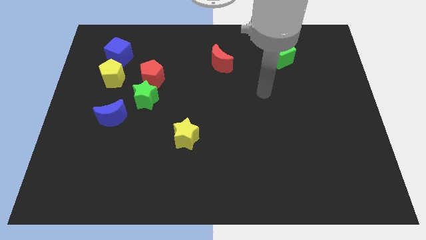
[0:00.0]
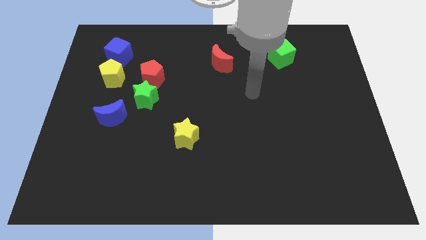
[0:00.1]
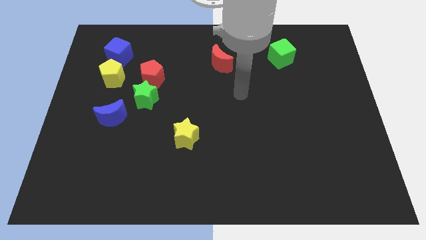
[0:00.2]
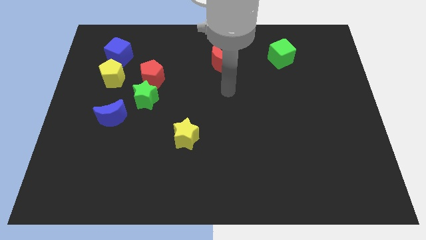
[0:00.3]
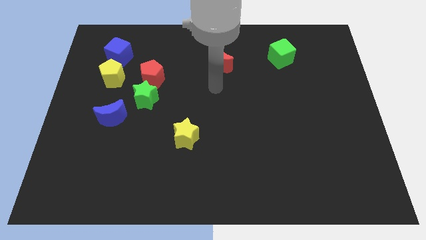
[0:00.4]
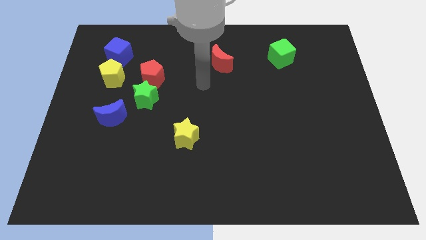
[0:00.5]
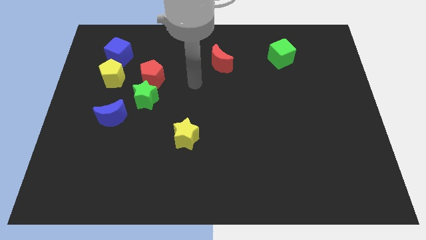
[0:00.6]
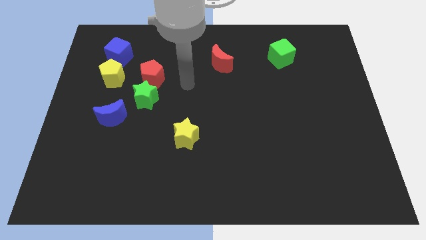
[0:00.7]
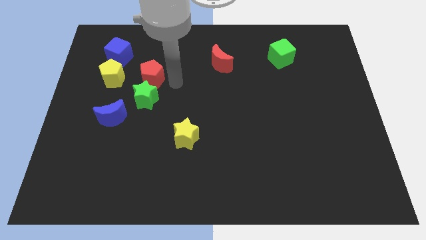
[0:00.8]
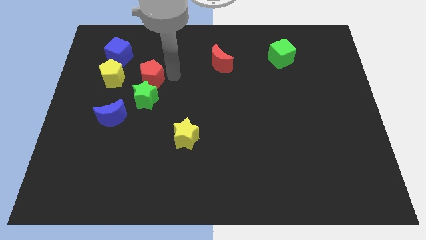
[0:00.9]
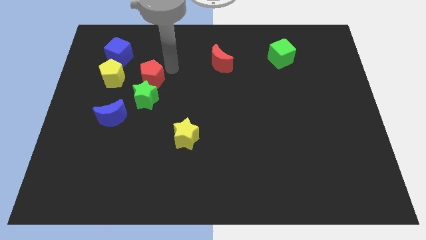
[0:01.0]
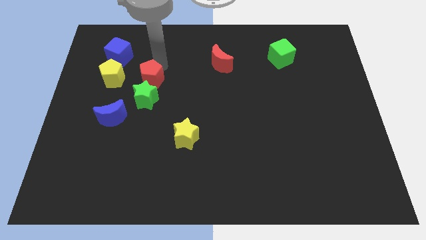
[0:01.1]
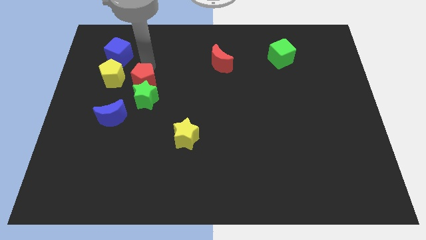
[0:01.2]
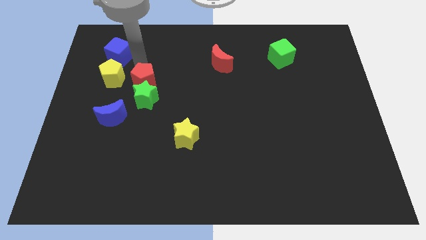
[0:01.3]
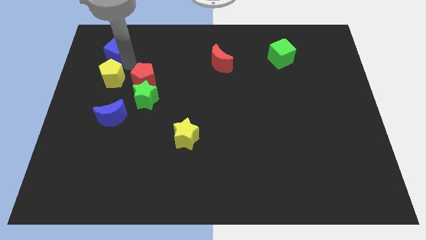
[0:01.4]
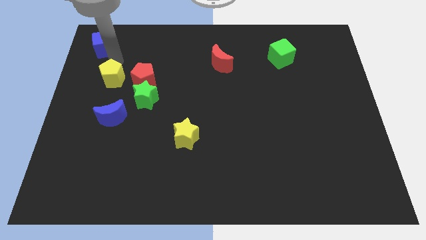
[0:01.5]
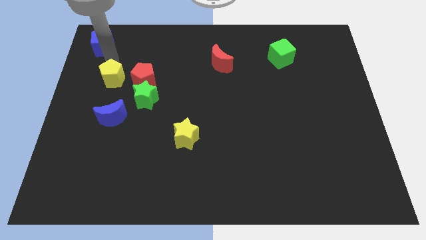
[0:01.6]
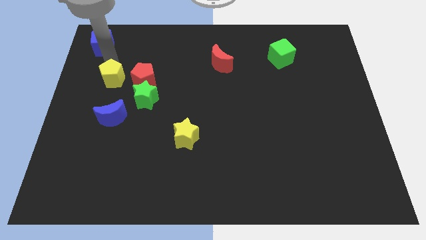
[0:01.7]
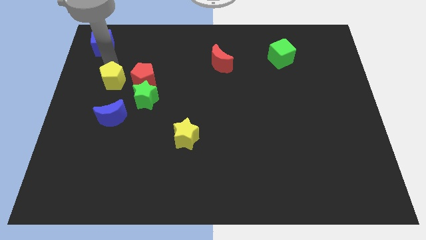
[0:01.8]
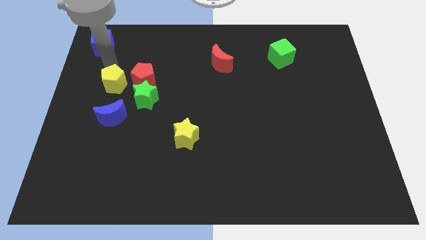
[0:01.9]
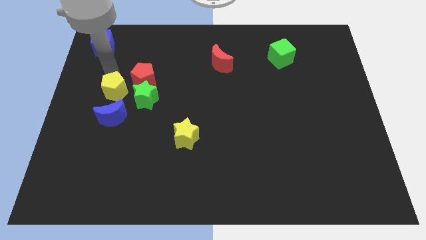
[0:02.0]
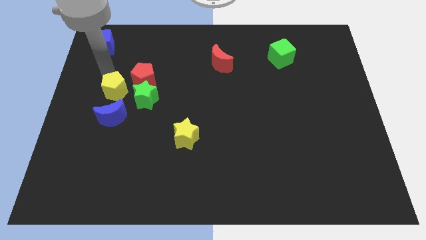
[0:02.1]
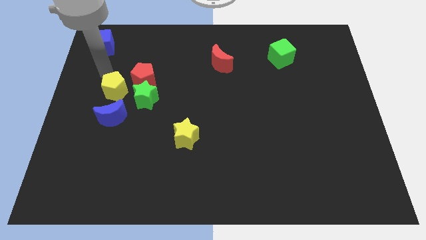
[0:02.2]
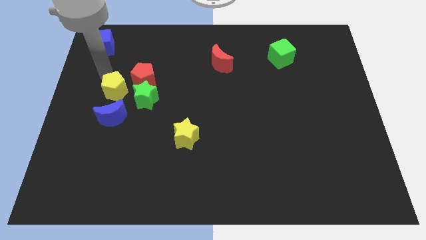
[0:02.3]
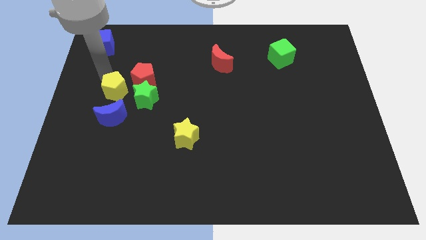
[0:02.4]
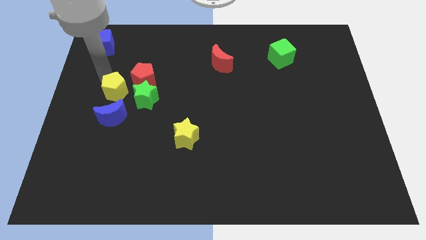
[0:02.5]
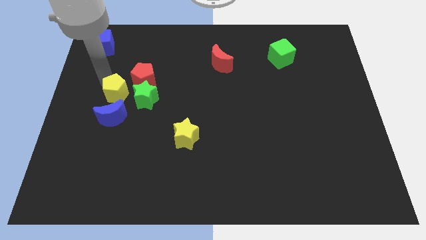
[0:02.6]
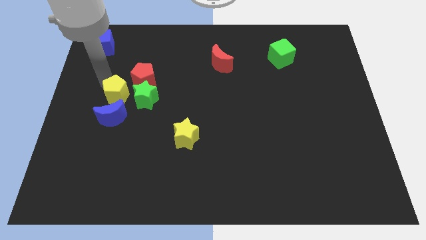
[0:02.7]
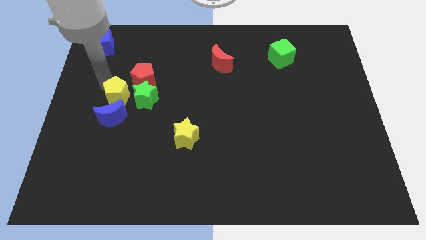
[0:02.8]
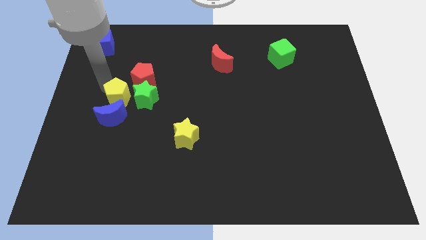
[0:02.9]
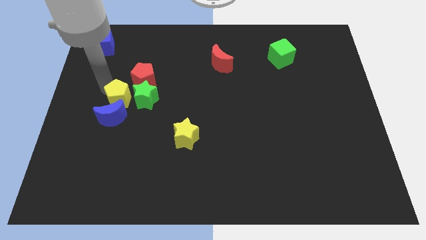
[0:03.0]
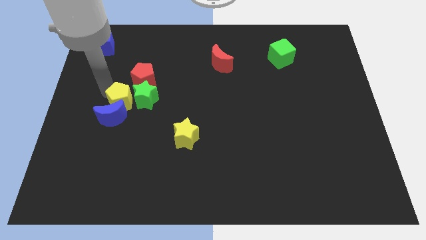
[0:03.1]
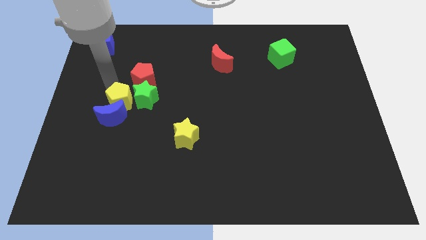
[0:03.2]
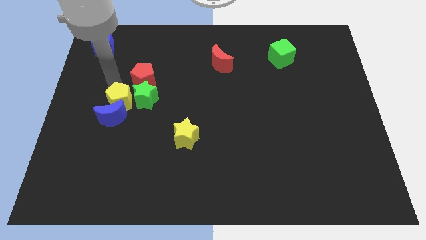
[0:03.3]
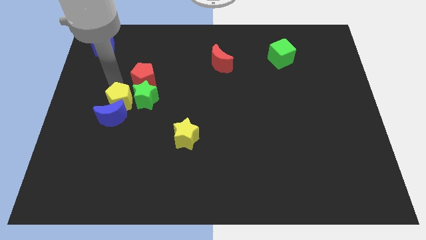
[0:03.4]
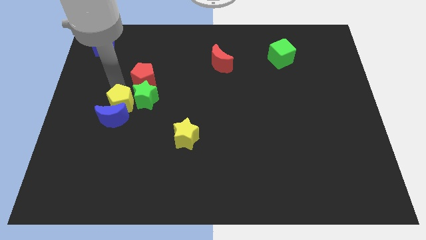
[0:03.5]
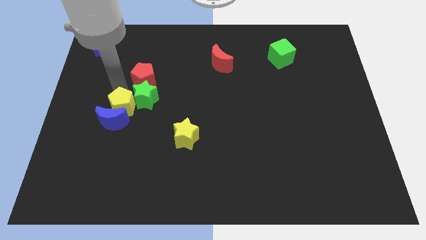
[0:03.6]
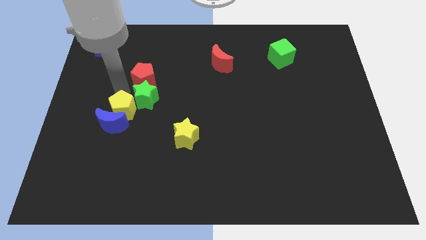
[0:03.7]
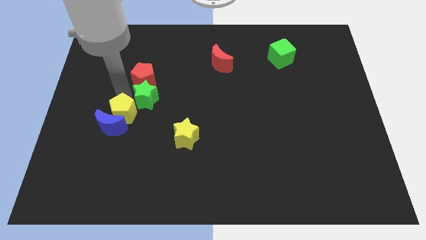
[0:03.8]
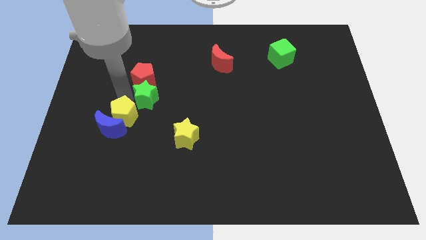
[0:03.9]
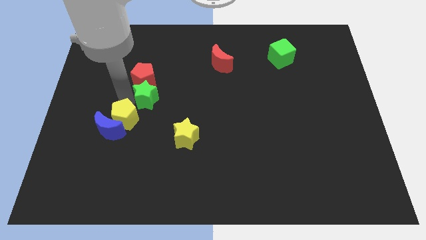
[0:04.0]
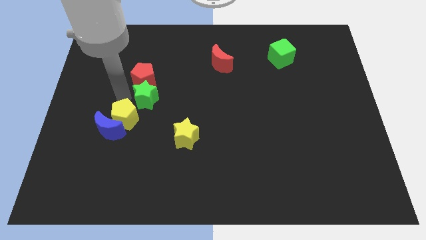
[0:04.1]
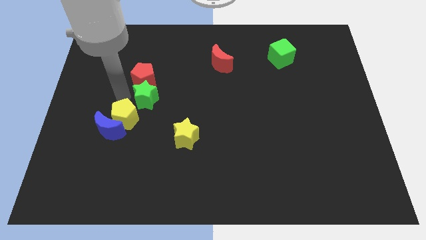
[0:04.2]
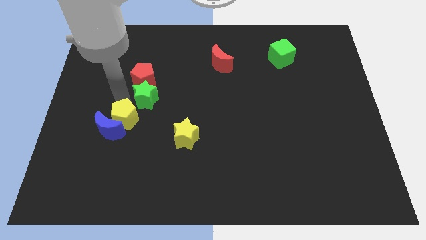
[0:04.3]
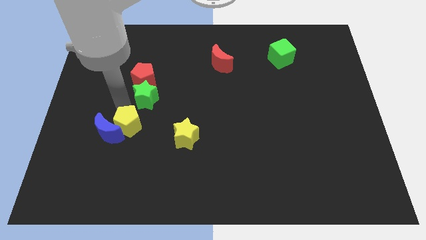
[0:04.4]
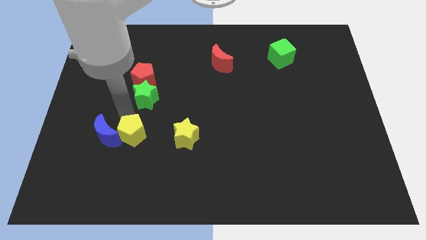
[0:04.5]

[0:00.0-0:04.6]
push the yellow pentagon diagonally down and to the right of the blue moon

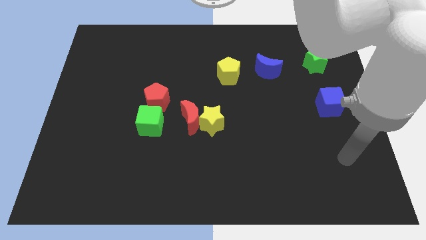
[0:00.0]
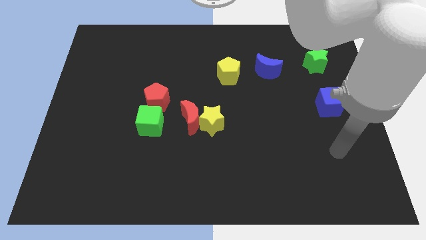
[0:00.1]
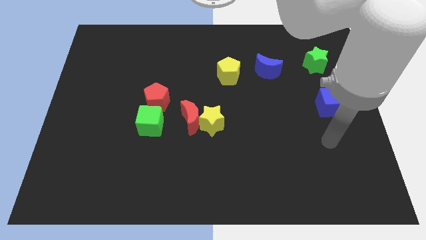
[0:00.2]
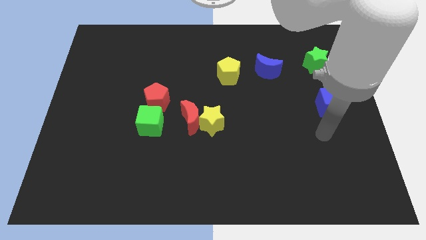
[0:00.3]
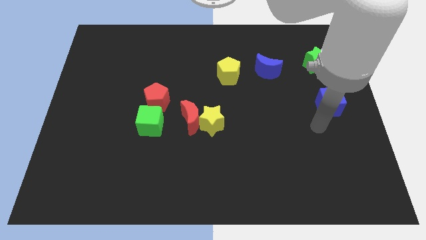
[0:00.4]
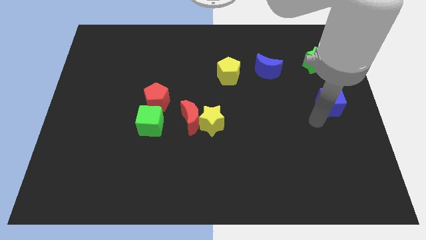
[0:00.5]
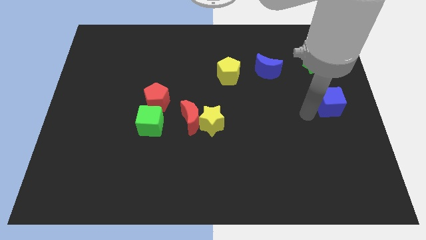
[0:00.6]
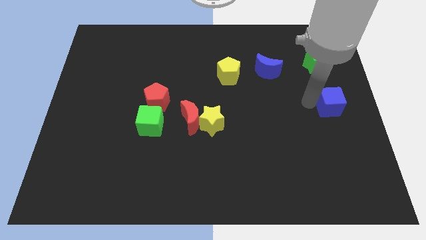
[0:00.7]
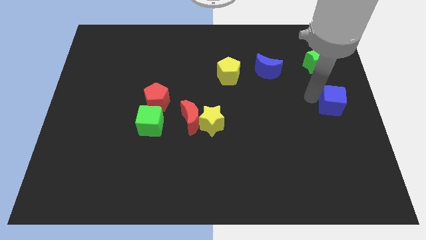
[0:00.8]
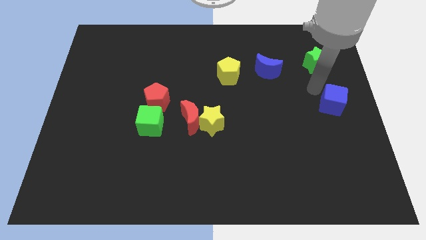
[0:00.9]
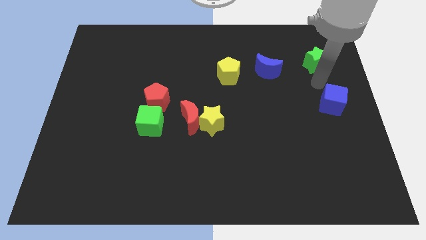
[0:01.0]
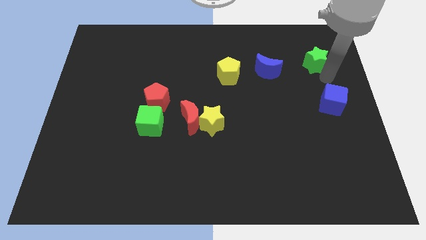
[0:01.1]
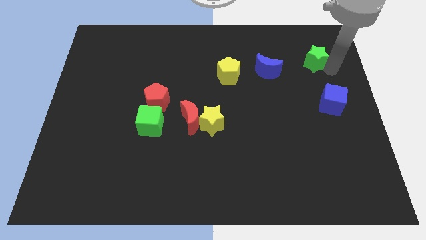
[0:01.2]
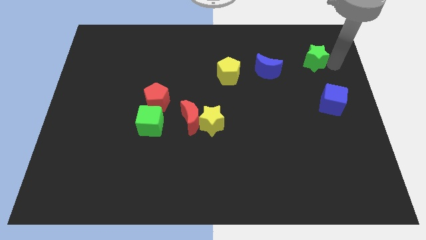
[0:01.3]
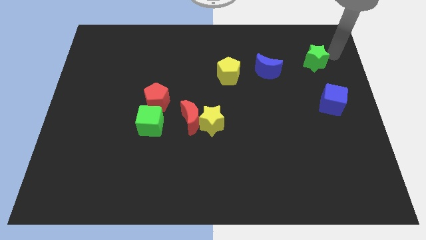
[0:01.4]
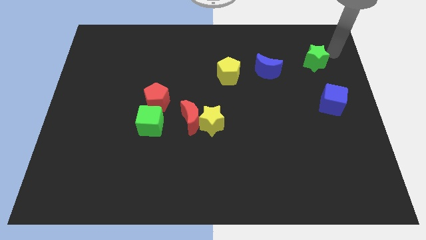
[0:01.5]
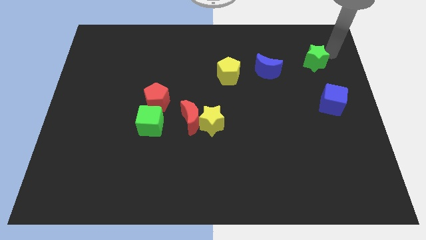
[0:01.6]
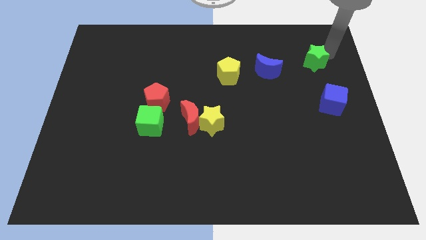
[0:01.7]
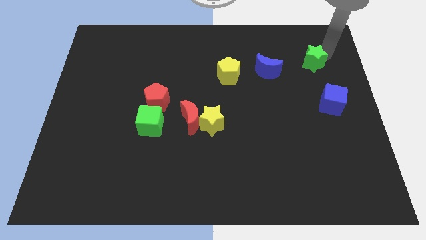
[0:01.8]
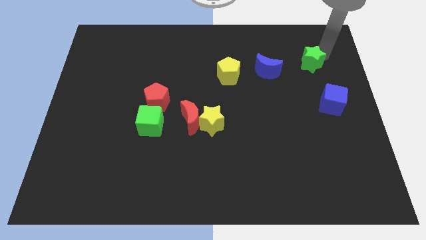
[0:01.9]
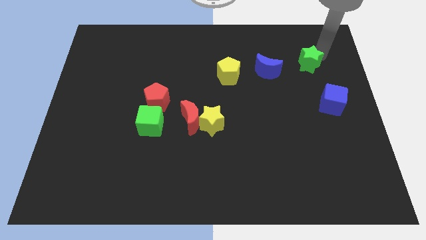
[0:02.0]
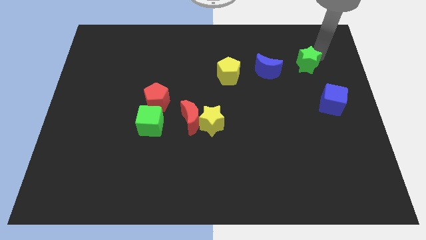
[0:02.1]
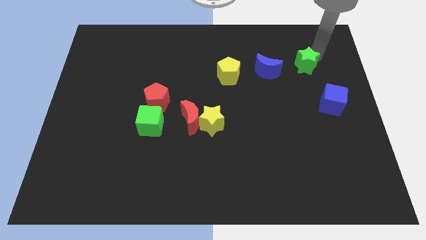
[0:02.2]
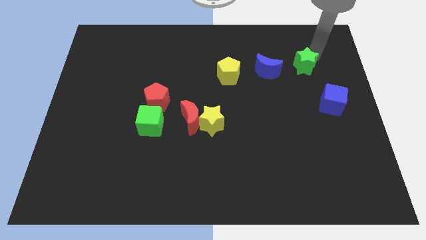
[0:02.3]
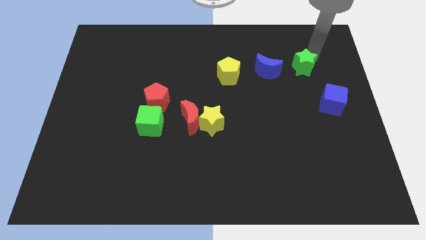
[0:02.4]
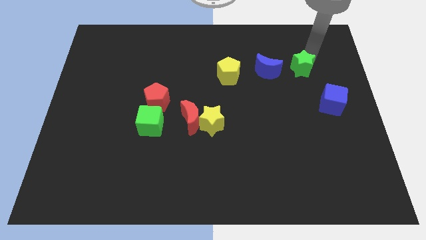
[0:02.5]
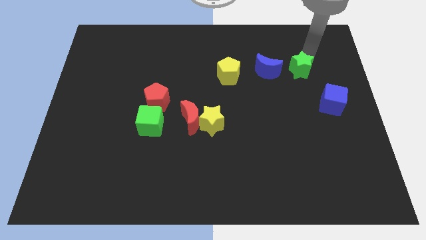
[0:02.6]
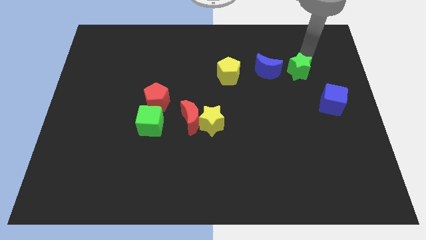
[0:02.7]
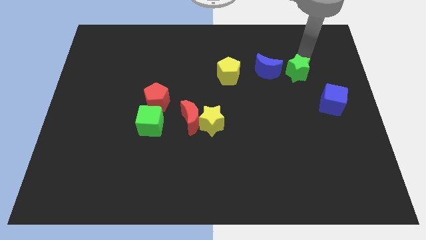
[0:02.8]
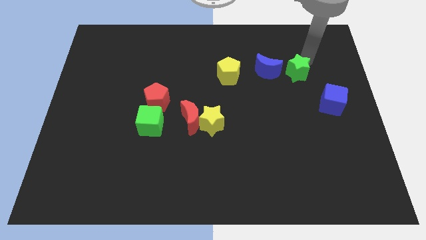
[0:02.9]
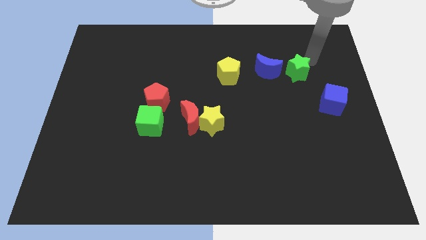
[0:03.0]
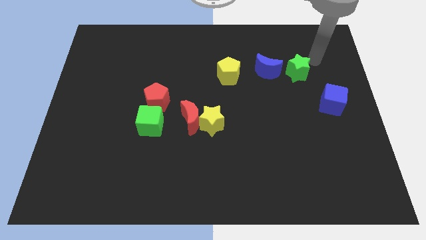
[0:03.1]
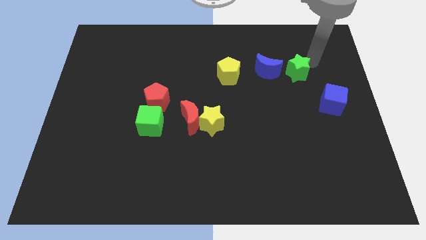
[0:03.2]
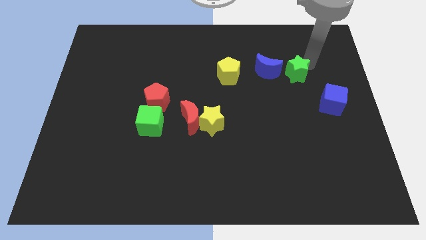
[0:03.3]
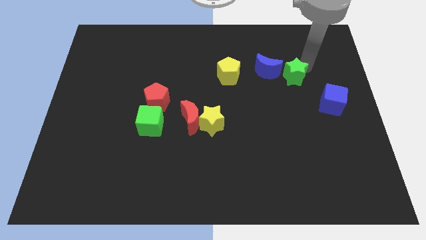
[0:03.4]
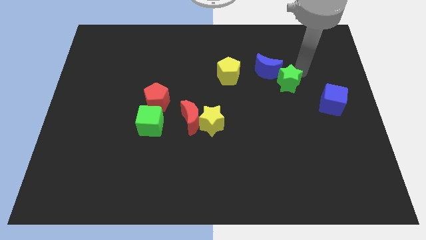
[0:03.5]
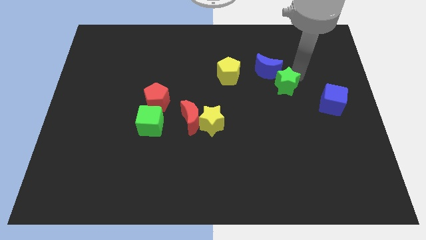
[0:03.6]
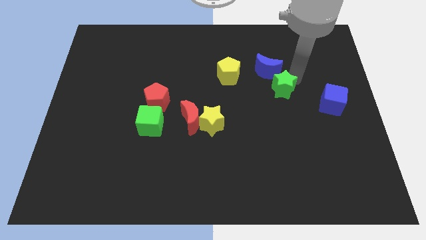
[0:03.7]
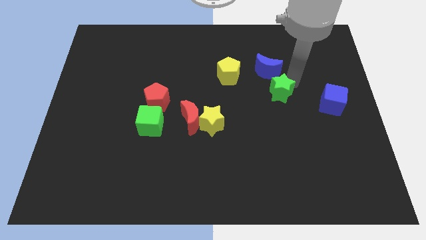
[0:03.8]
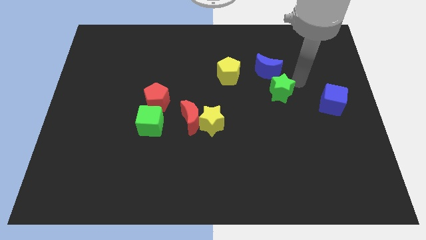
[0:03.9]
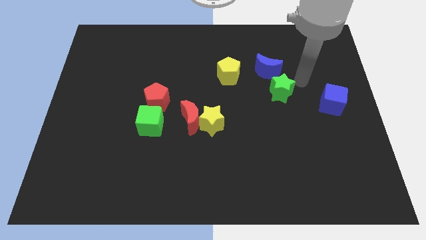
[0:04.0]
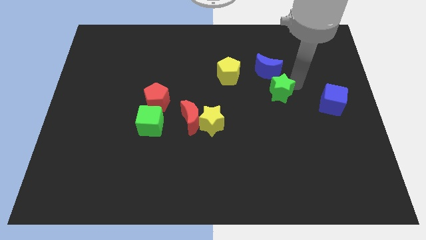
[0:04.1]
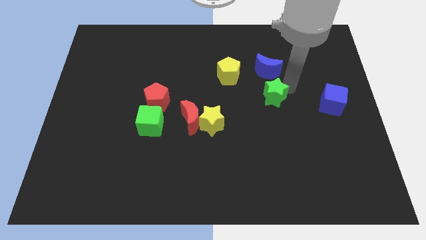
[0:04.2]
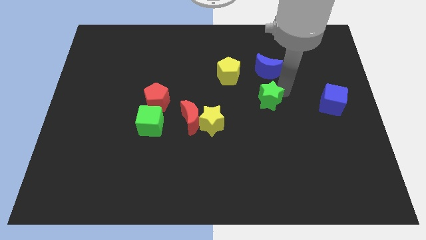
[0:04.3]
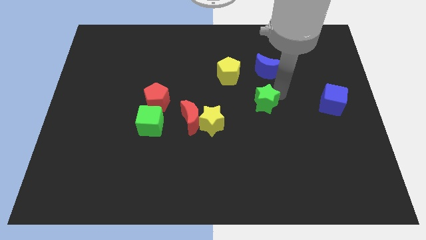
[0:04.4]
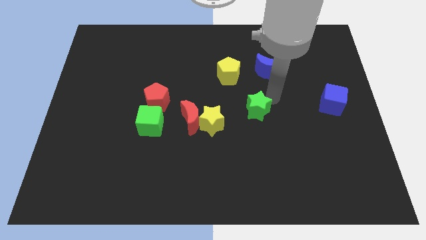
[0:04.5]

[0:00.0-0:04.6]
push the green star right of the red moon
